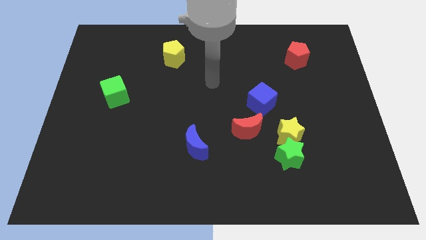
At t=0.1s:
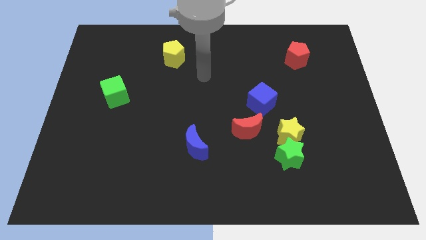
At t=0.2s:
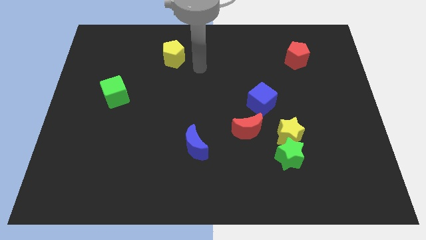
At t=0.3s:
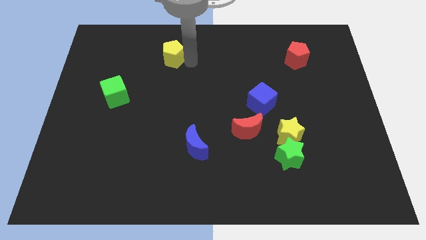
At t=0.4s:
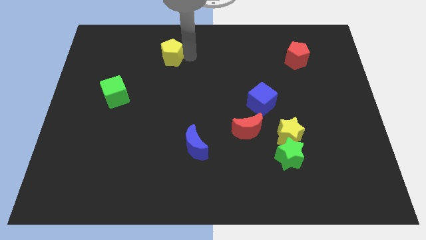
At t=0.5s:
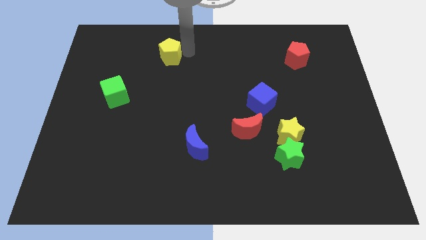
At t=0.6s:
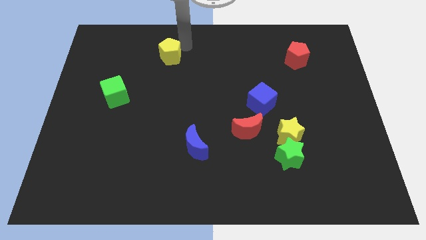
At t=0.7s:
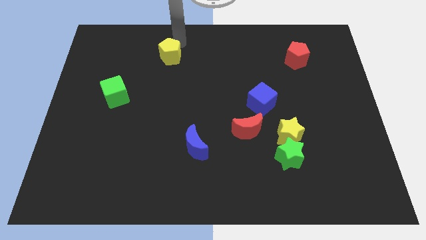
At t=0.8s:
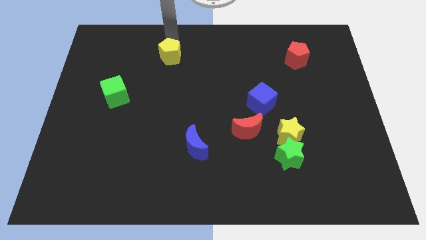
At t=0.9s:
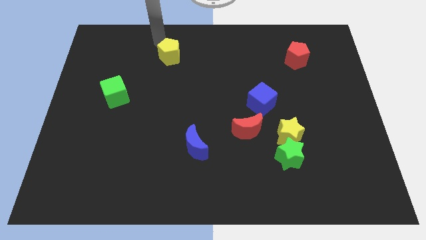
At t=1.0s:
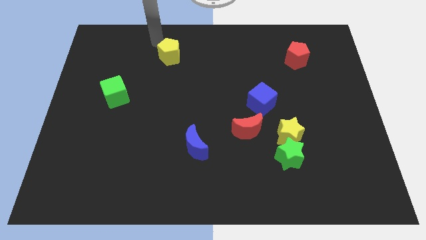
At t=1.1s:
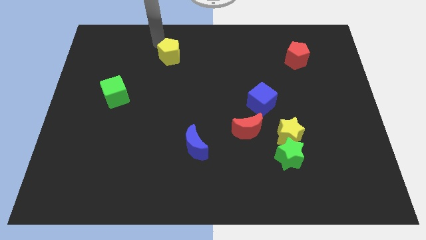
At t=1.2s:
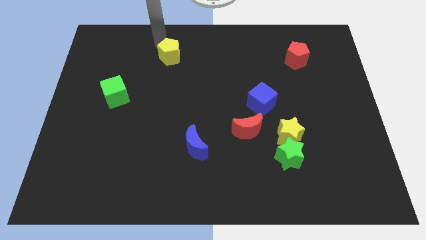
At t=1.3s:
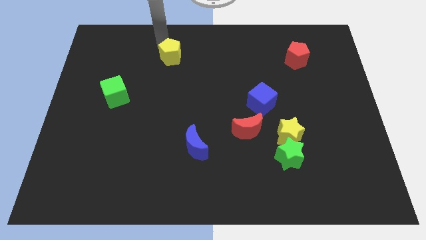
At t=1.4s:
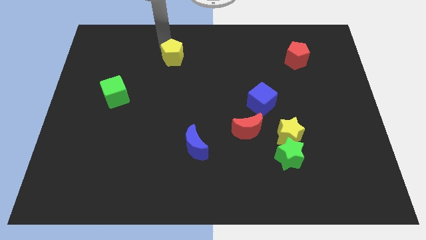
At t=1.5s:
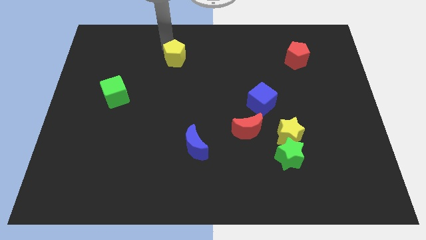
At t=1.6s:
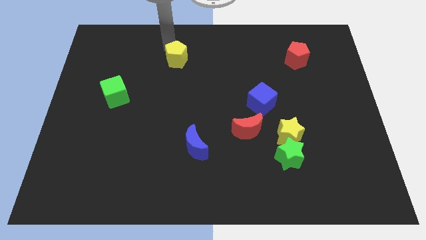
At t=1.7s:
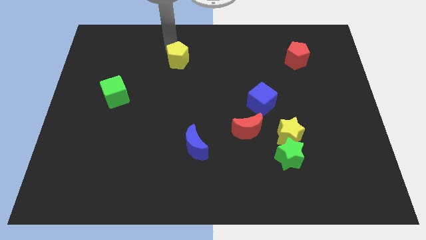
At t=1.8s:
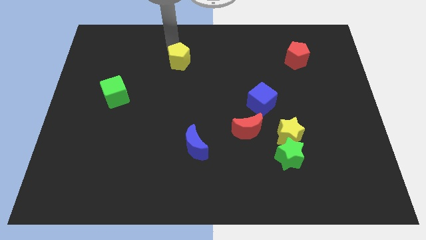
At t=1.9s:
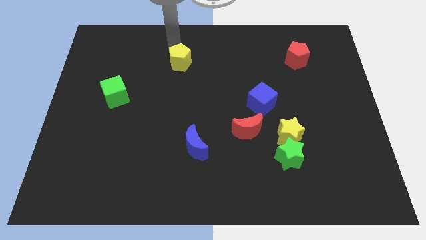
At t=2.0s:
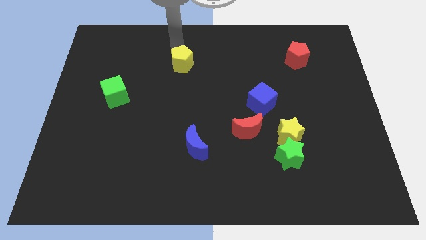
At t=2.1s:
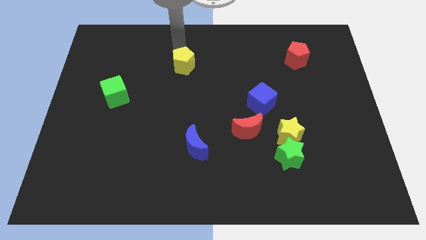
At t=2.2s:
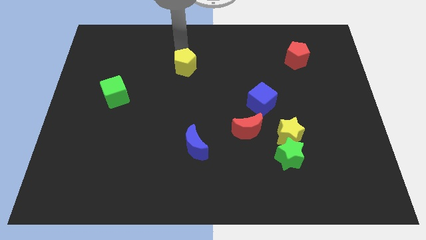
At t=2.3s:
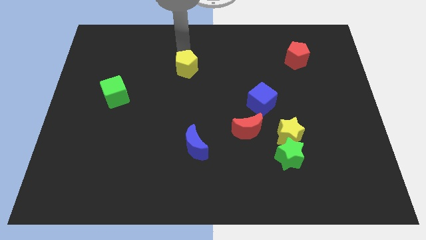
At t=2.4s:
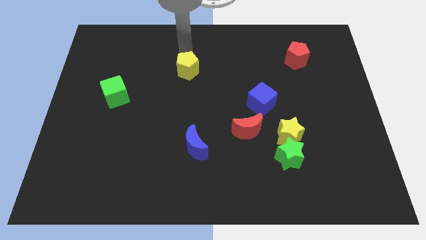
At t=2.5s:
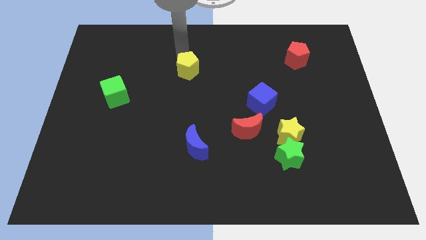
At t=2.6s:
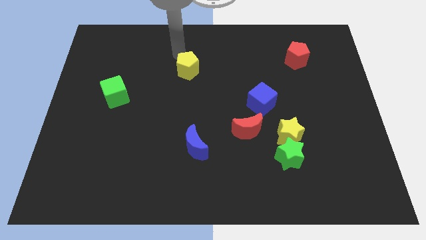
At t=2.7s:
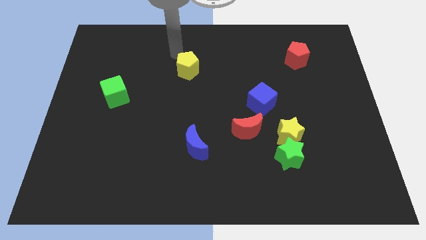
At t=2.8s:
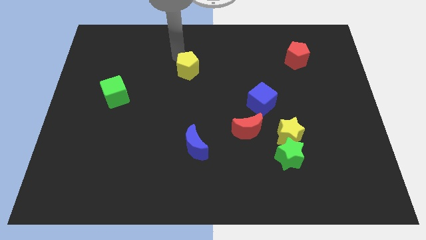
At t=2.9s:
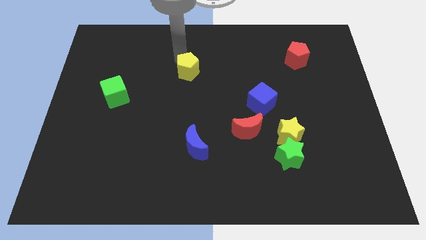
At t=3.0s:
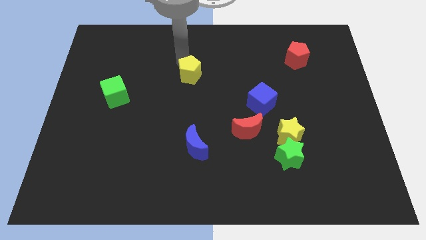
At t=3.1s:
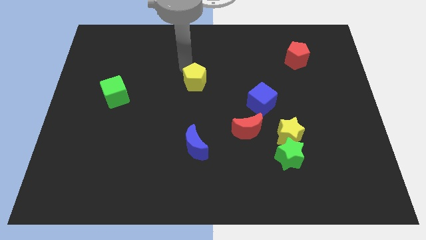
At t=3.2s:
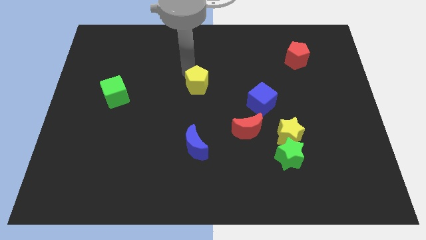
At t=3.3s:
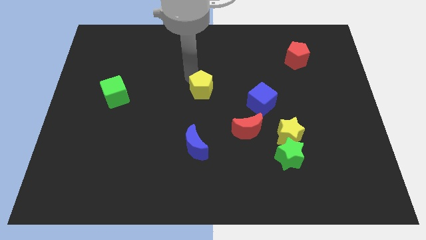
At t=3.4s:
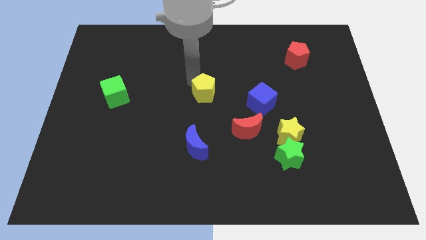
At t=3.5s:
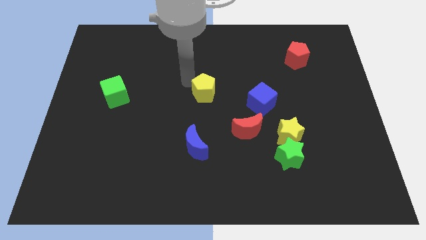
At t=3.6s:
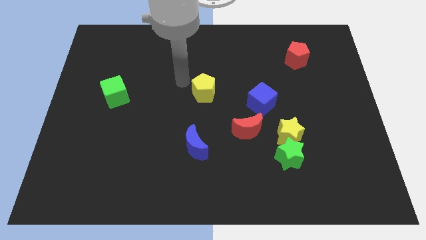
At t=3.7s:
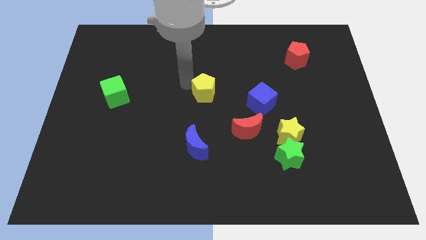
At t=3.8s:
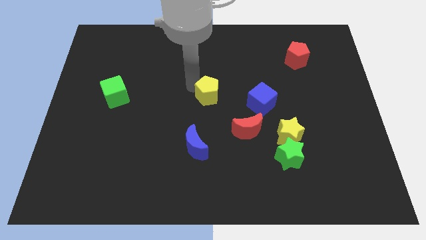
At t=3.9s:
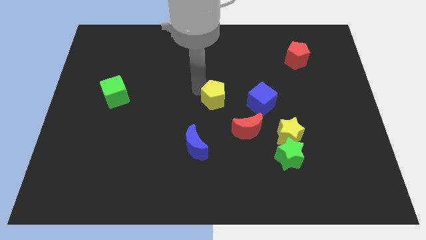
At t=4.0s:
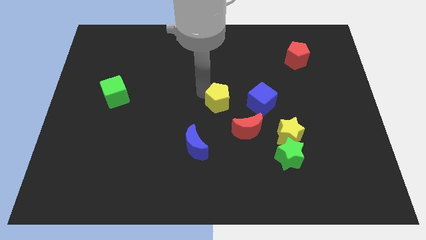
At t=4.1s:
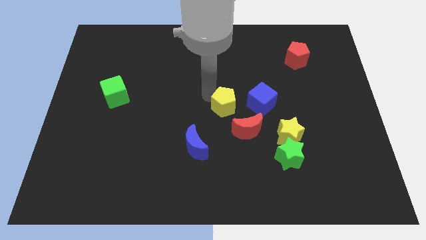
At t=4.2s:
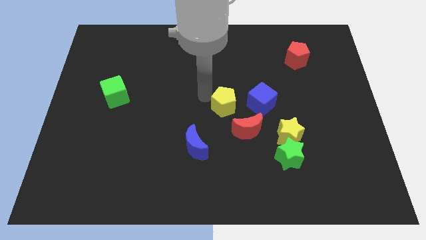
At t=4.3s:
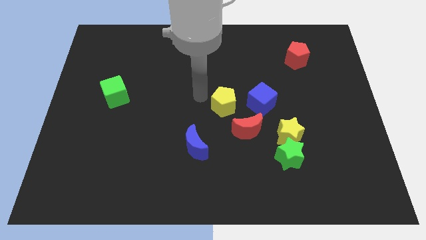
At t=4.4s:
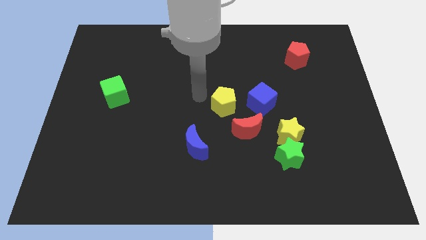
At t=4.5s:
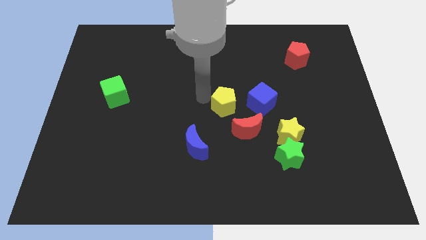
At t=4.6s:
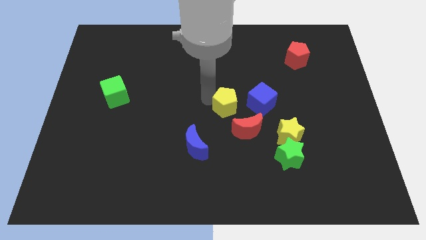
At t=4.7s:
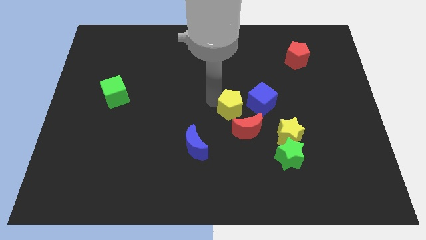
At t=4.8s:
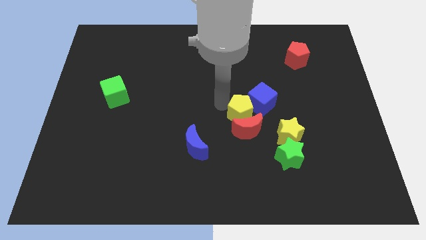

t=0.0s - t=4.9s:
put the yellow pentagon to the top left side of the yellow star

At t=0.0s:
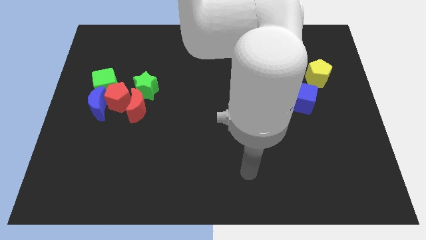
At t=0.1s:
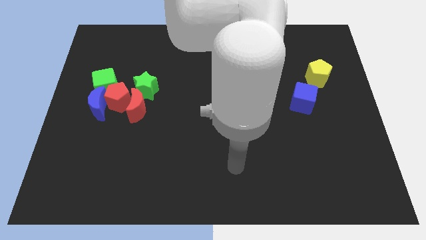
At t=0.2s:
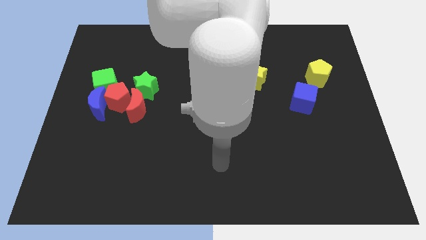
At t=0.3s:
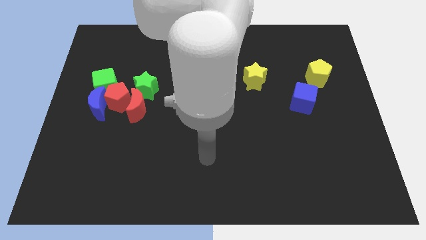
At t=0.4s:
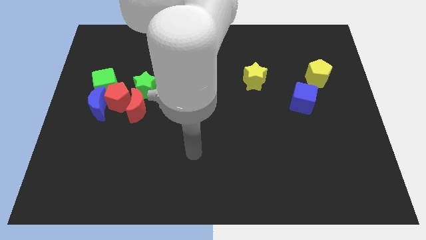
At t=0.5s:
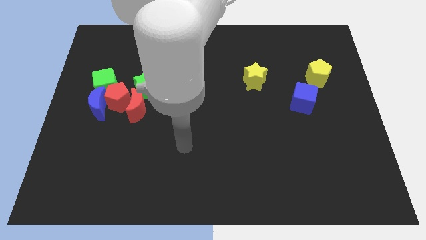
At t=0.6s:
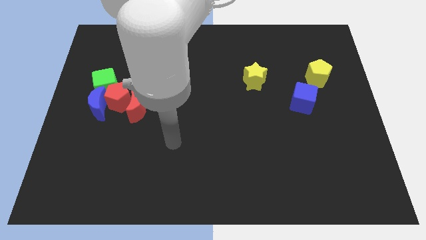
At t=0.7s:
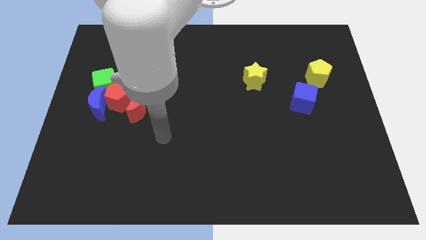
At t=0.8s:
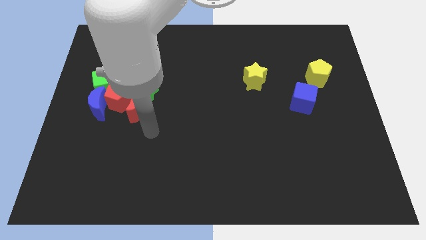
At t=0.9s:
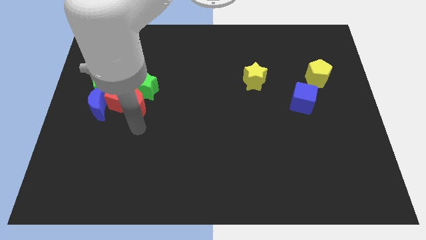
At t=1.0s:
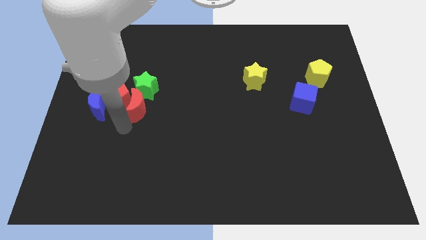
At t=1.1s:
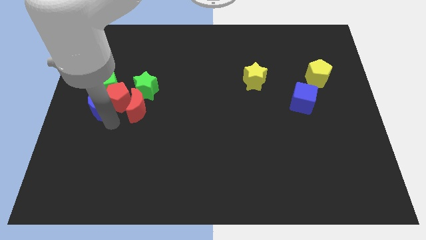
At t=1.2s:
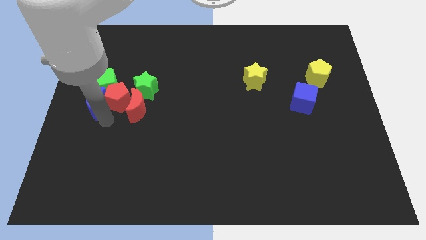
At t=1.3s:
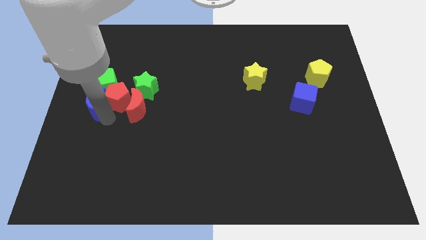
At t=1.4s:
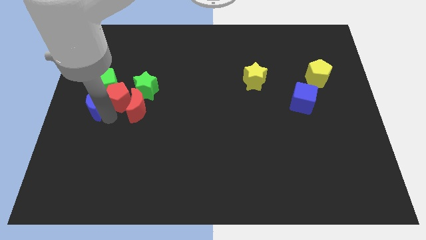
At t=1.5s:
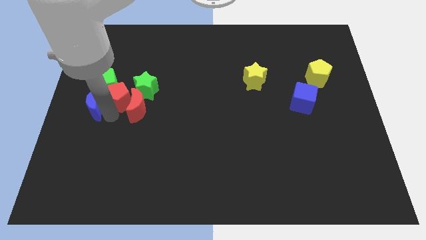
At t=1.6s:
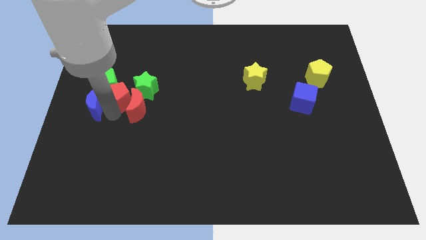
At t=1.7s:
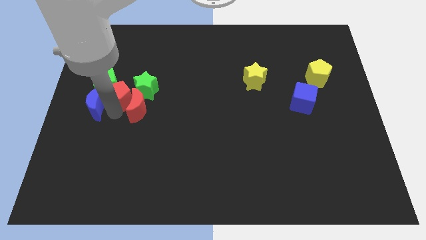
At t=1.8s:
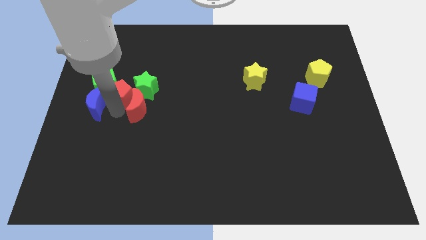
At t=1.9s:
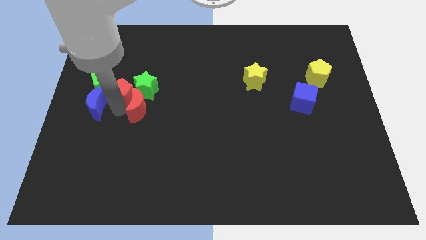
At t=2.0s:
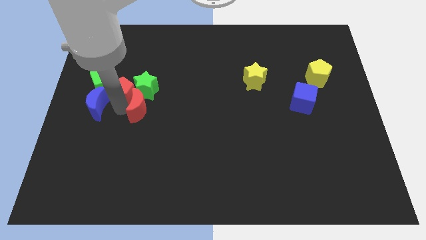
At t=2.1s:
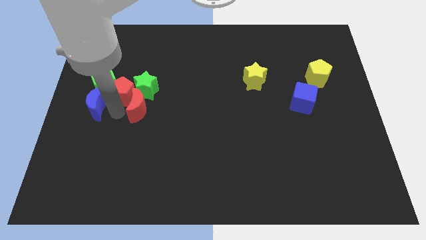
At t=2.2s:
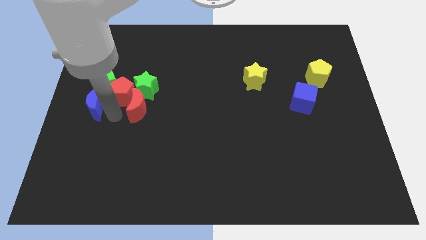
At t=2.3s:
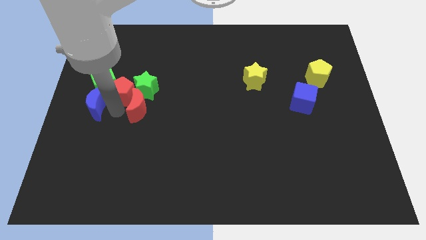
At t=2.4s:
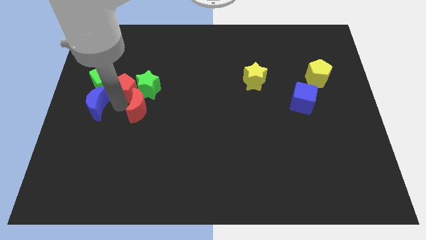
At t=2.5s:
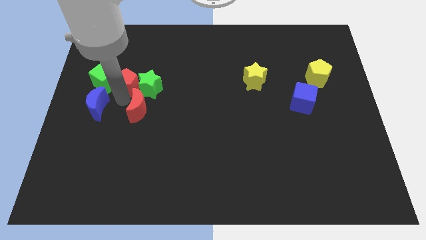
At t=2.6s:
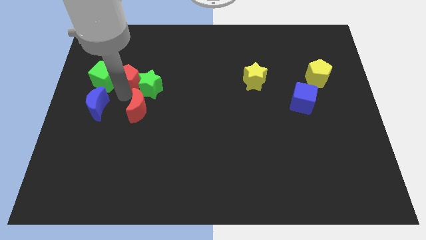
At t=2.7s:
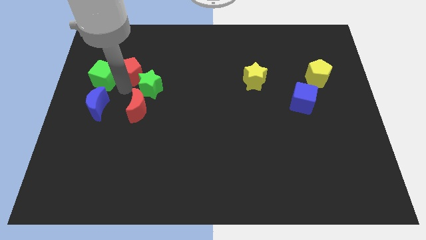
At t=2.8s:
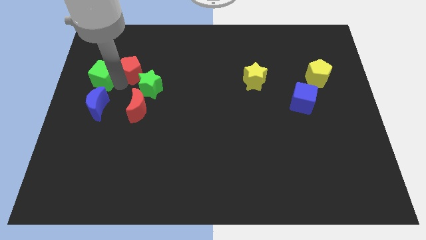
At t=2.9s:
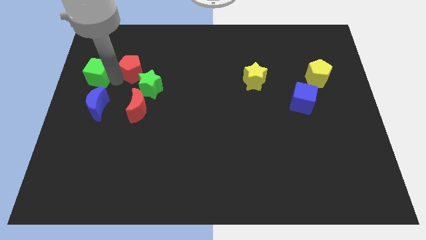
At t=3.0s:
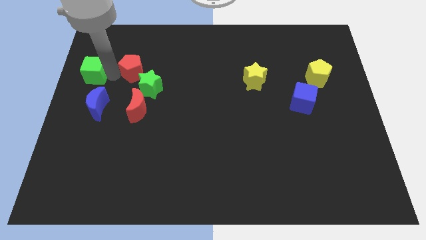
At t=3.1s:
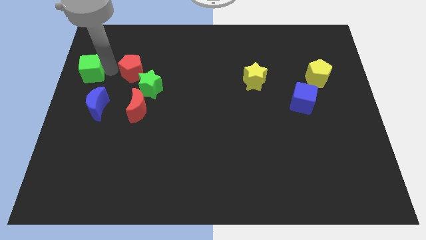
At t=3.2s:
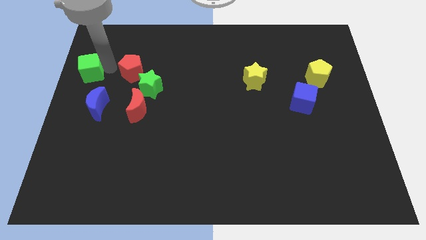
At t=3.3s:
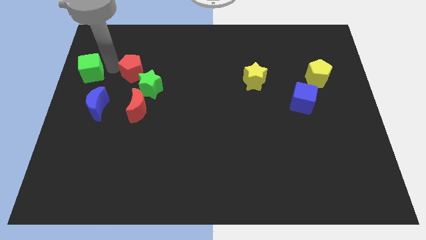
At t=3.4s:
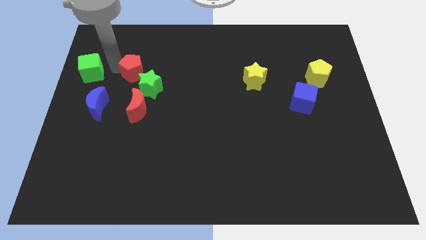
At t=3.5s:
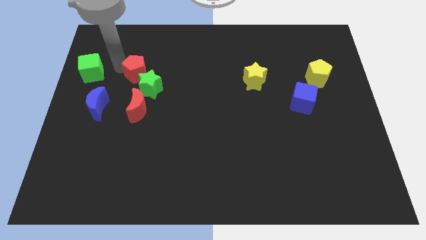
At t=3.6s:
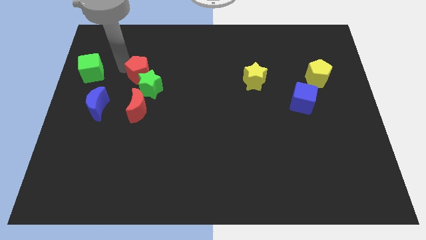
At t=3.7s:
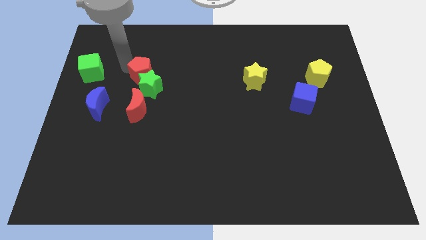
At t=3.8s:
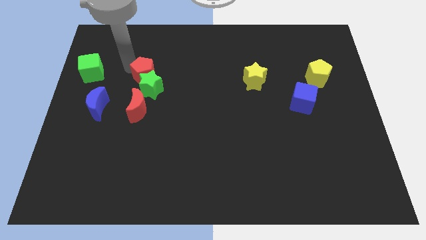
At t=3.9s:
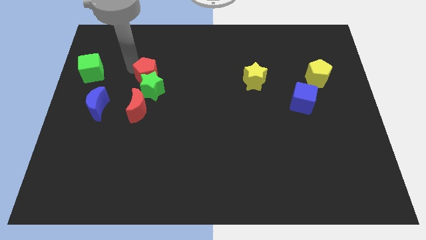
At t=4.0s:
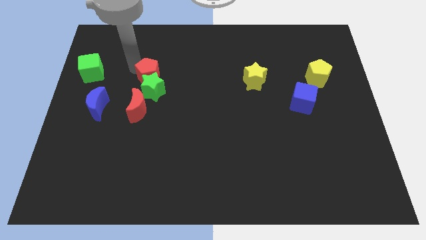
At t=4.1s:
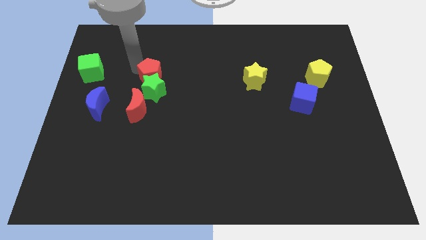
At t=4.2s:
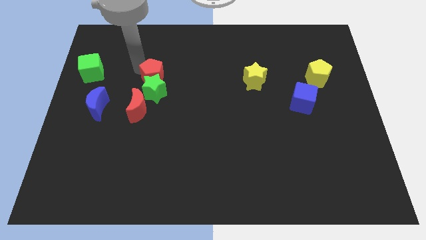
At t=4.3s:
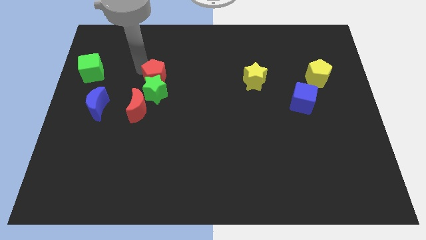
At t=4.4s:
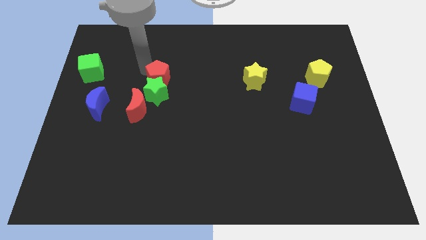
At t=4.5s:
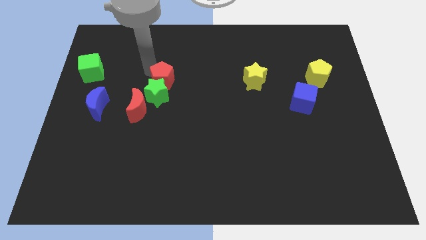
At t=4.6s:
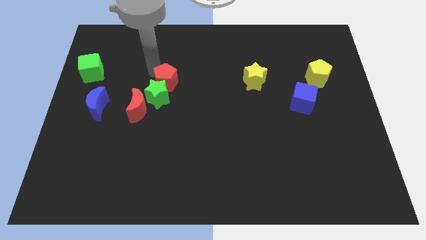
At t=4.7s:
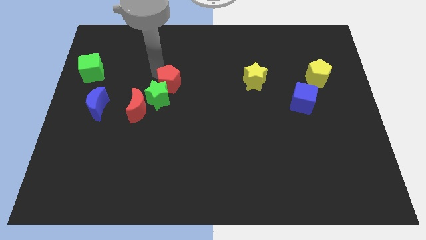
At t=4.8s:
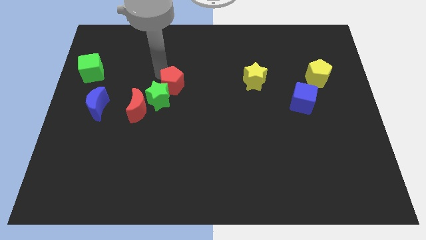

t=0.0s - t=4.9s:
slide the red pentagon just right of the green star
